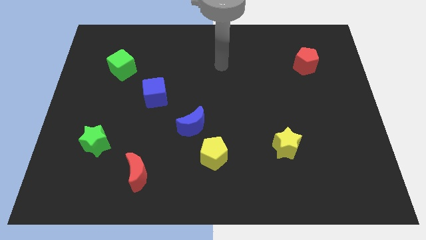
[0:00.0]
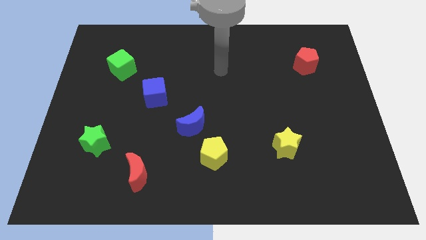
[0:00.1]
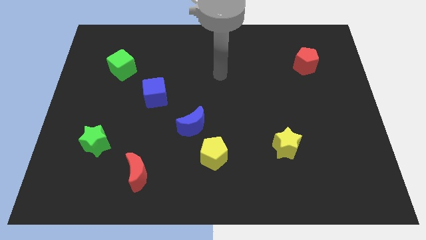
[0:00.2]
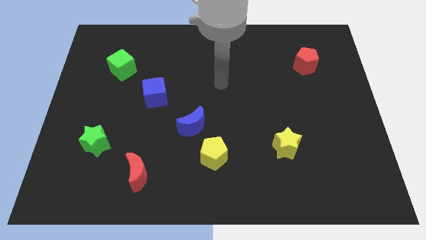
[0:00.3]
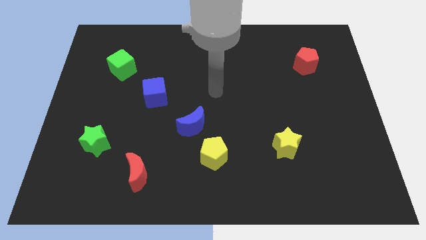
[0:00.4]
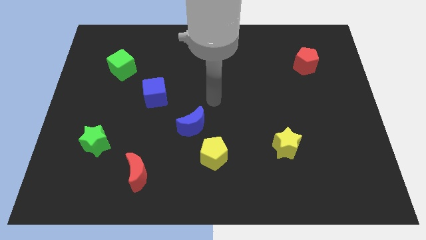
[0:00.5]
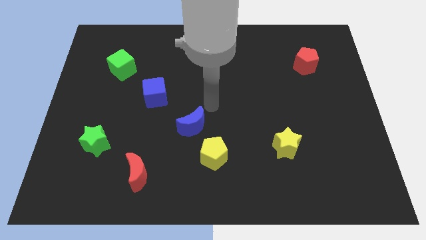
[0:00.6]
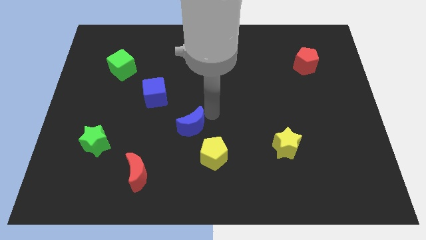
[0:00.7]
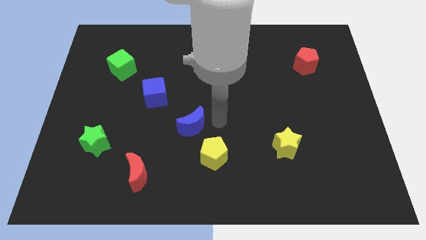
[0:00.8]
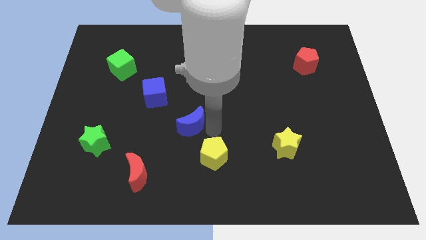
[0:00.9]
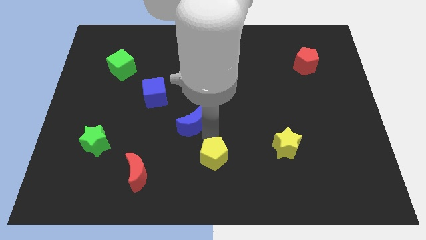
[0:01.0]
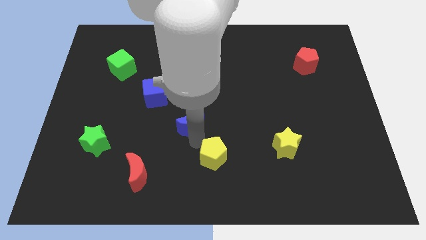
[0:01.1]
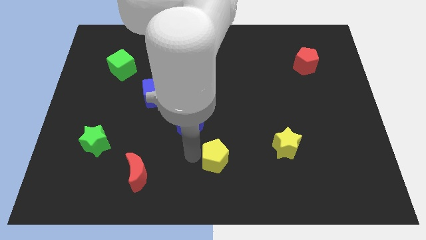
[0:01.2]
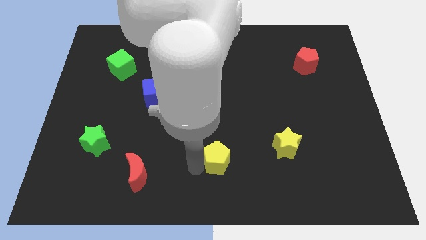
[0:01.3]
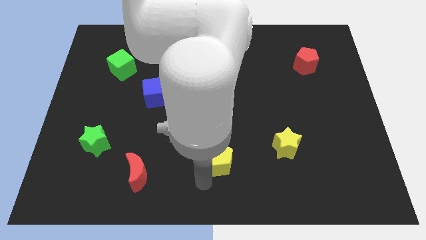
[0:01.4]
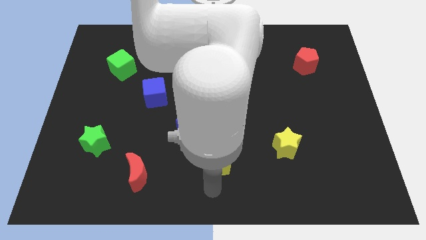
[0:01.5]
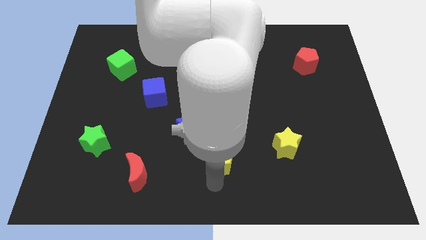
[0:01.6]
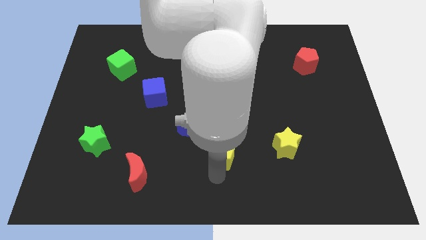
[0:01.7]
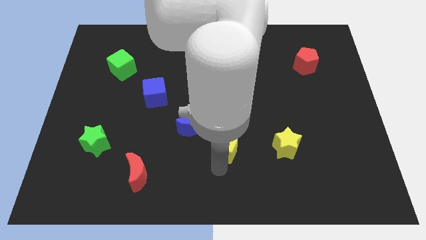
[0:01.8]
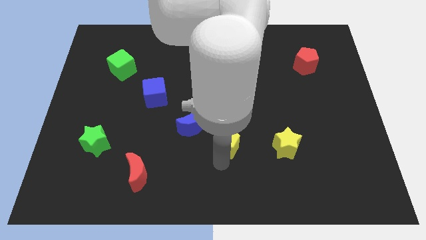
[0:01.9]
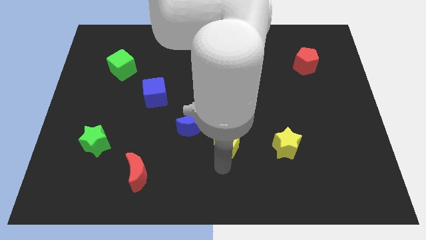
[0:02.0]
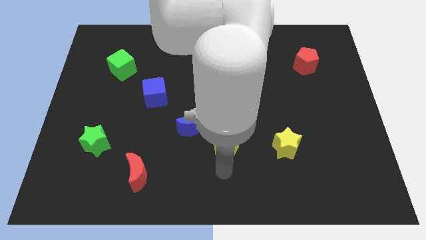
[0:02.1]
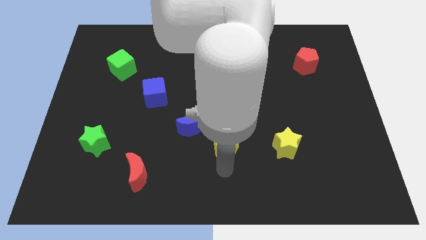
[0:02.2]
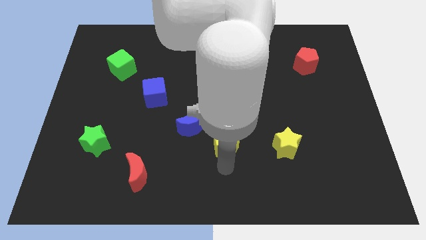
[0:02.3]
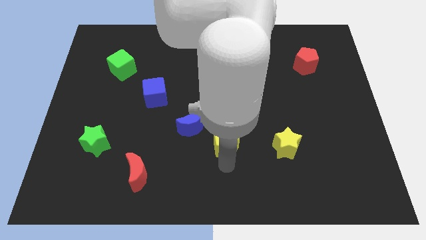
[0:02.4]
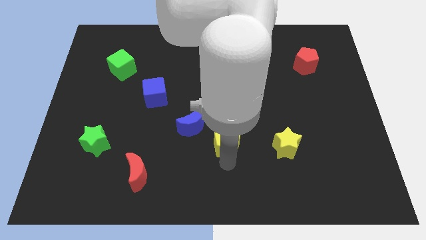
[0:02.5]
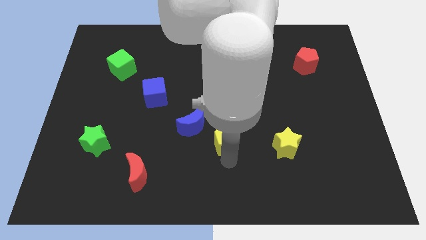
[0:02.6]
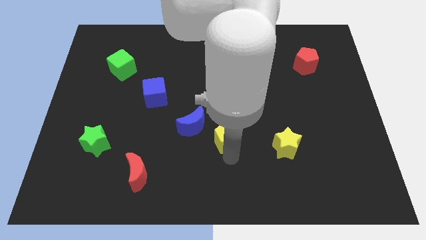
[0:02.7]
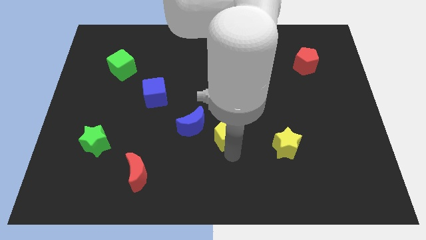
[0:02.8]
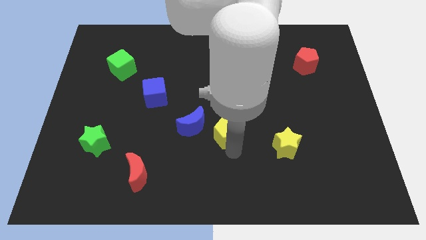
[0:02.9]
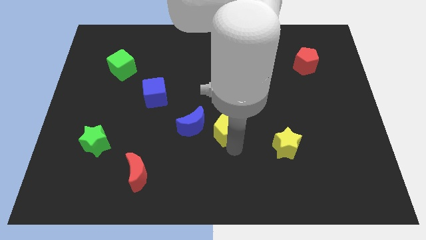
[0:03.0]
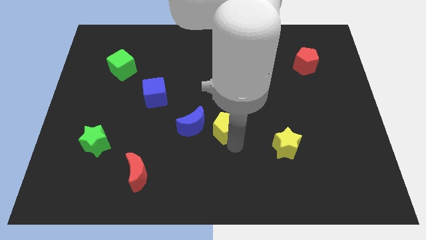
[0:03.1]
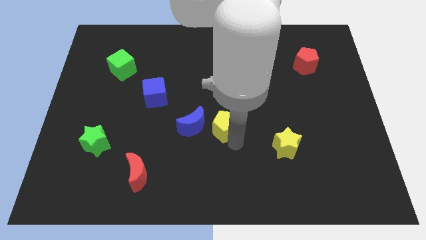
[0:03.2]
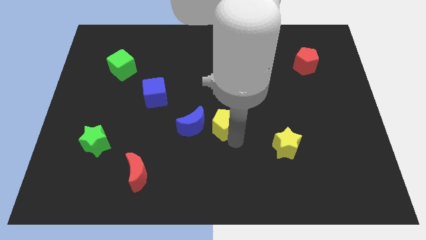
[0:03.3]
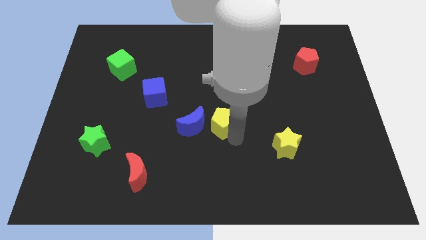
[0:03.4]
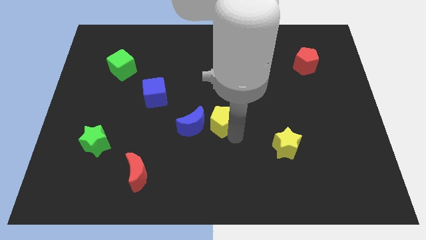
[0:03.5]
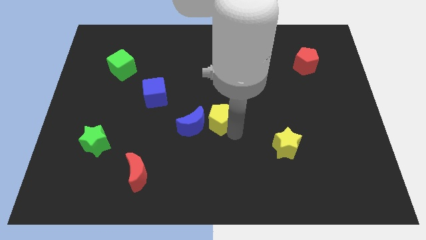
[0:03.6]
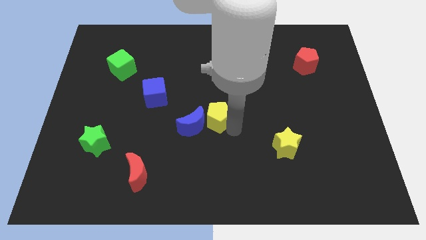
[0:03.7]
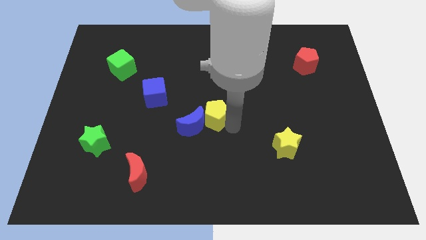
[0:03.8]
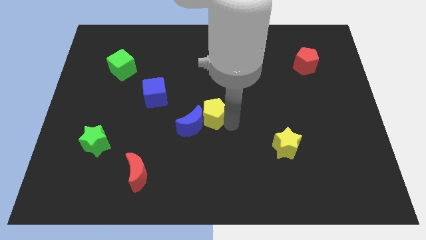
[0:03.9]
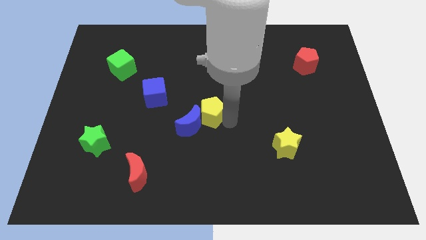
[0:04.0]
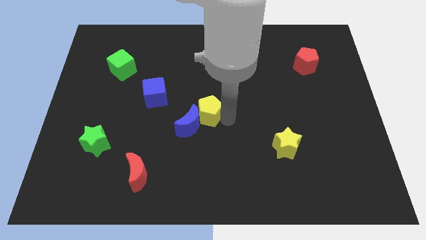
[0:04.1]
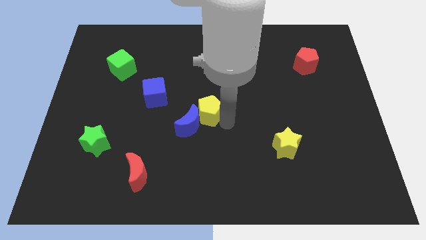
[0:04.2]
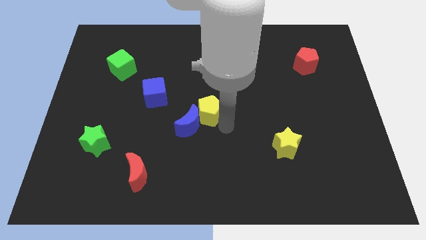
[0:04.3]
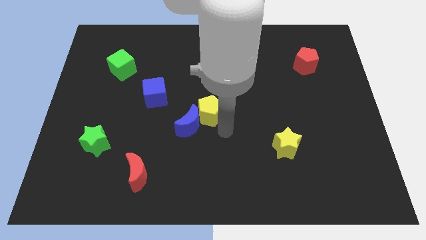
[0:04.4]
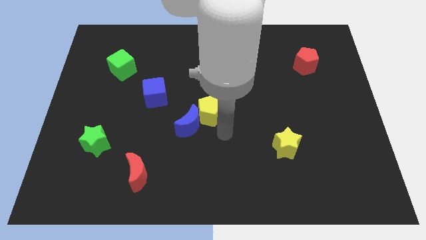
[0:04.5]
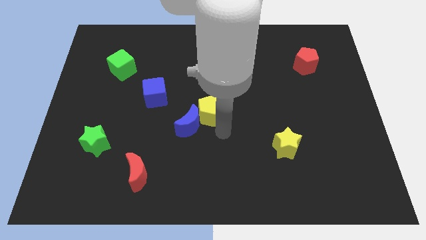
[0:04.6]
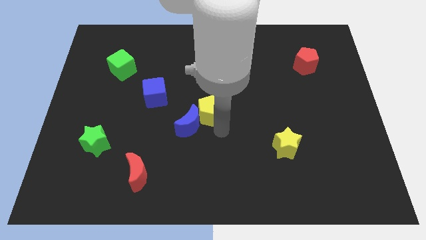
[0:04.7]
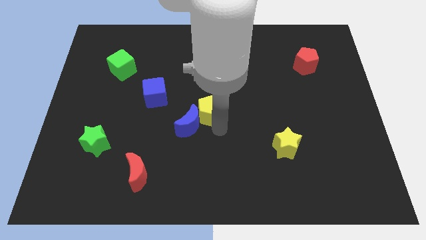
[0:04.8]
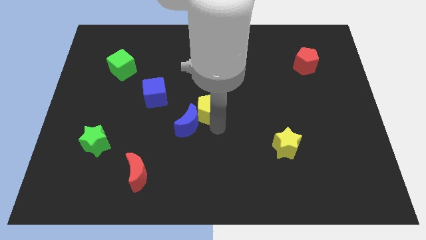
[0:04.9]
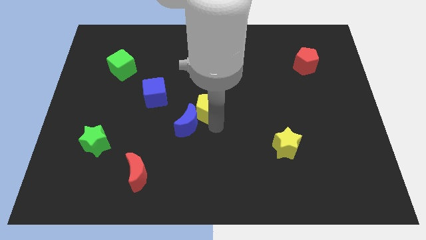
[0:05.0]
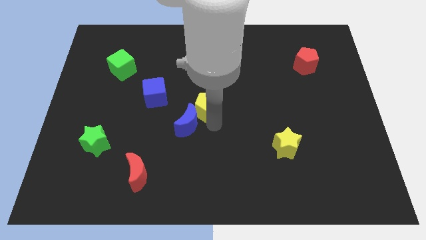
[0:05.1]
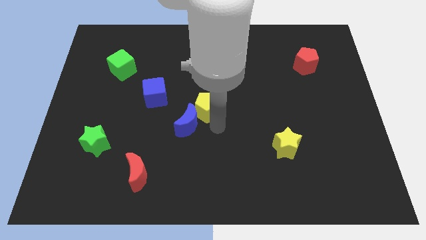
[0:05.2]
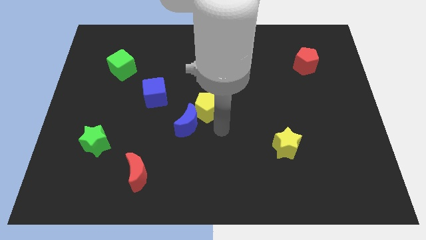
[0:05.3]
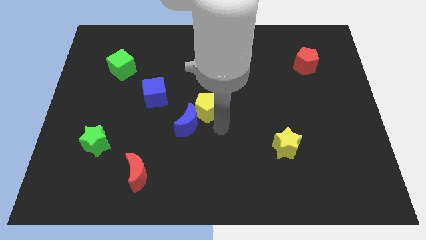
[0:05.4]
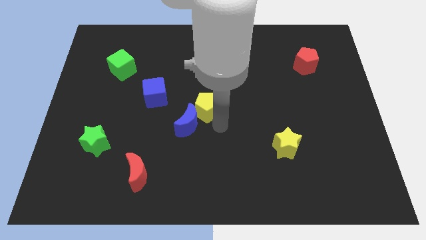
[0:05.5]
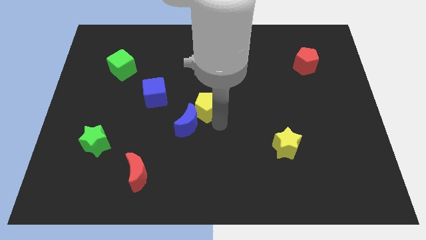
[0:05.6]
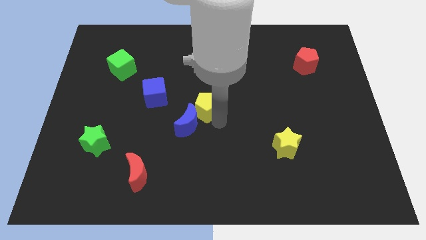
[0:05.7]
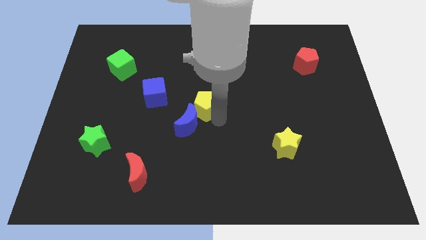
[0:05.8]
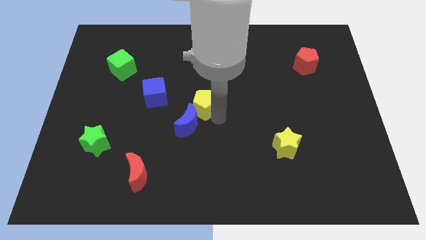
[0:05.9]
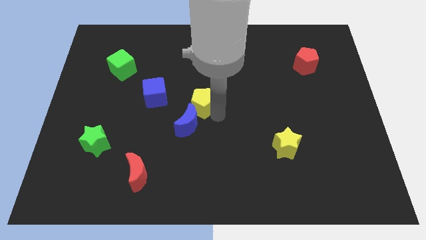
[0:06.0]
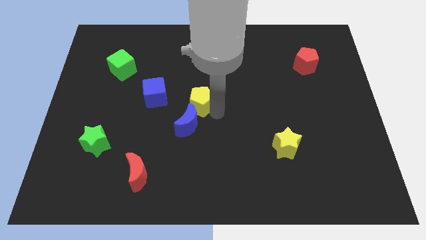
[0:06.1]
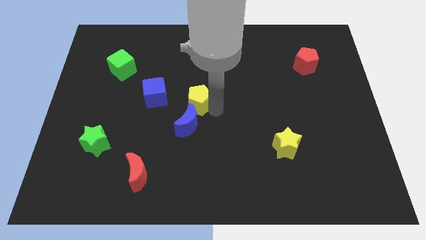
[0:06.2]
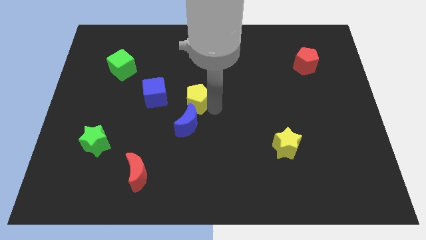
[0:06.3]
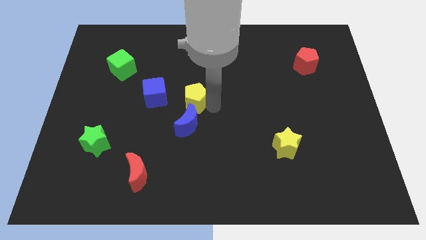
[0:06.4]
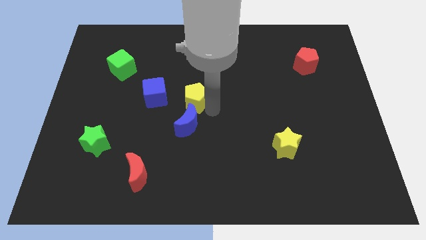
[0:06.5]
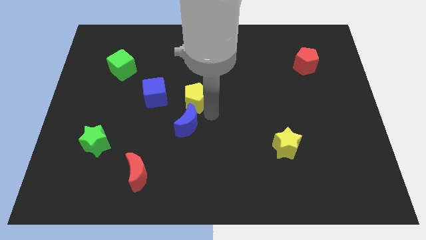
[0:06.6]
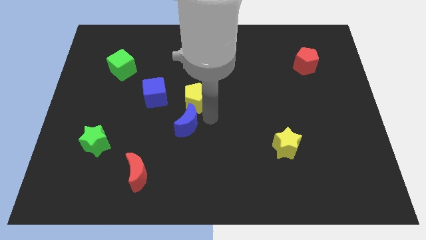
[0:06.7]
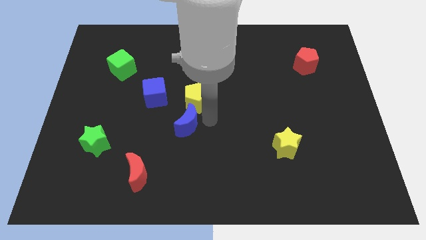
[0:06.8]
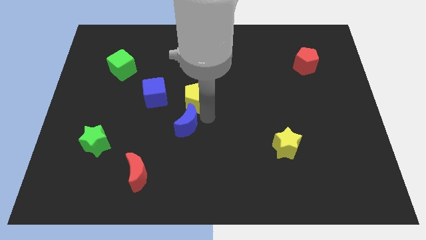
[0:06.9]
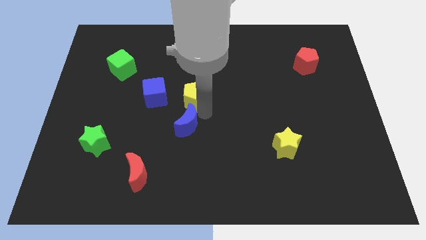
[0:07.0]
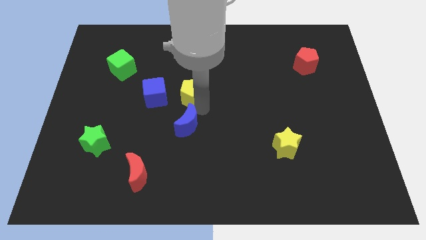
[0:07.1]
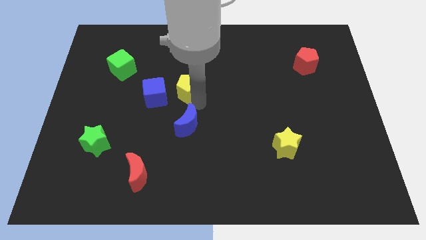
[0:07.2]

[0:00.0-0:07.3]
push the yellow pentagon to the top right of the blue cube
